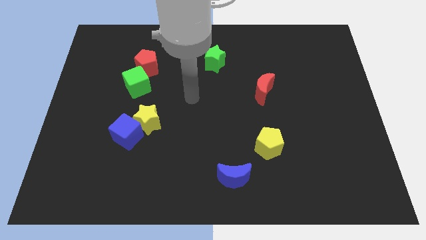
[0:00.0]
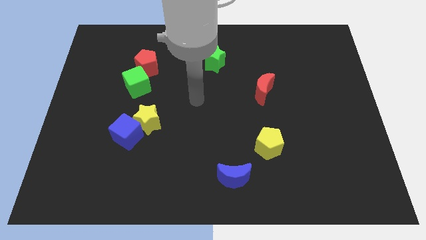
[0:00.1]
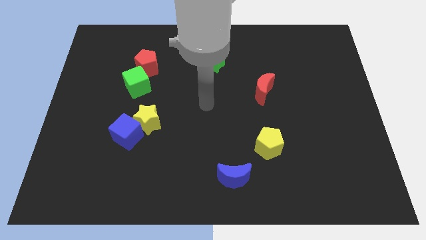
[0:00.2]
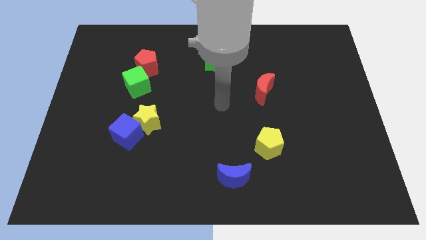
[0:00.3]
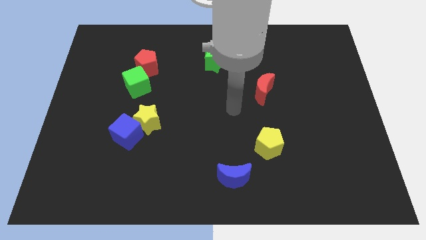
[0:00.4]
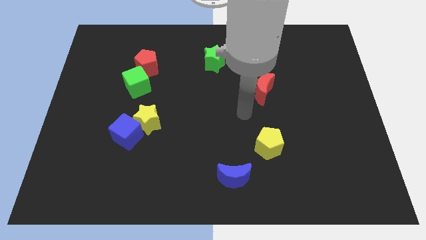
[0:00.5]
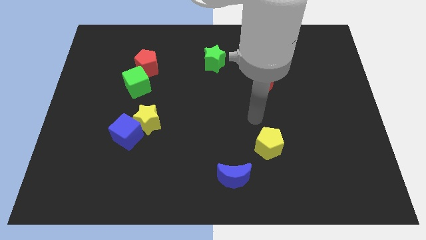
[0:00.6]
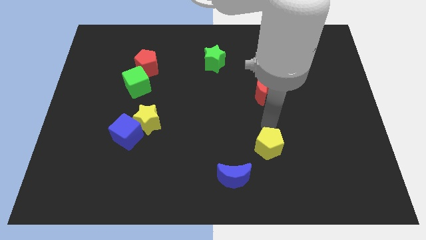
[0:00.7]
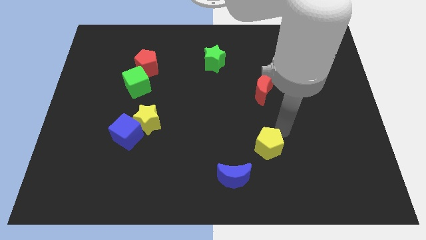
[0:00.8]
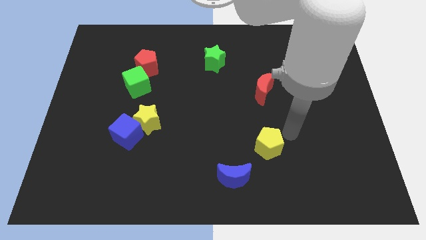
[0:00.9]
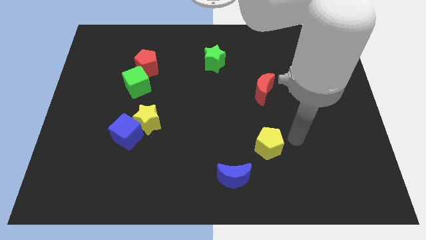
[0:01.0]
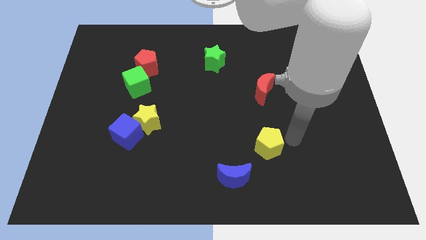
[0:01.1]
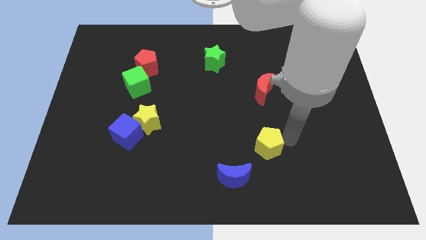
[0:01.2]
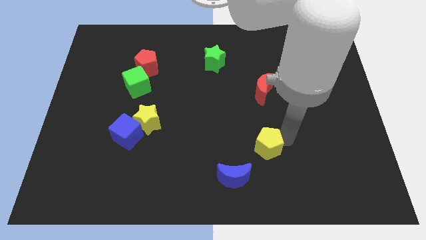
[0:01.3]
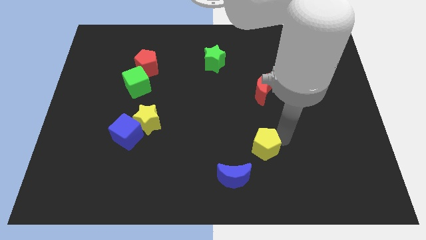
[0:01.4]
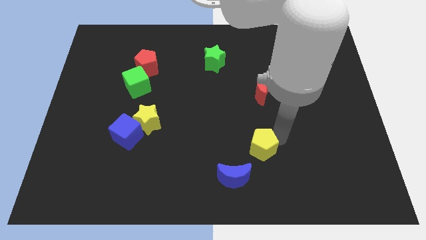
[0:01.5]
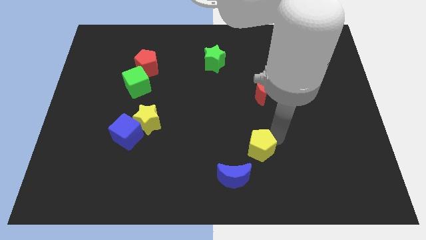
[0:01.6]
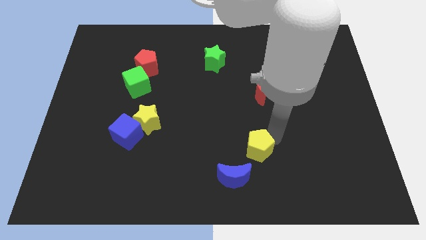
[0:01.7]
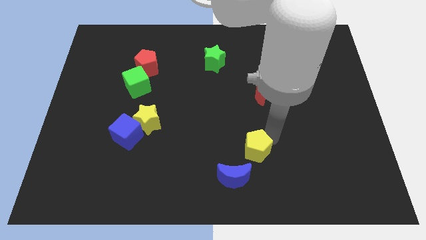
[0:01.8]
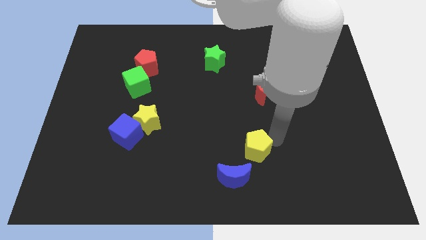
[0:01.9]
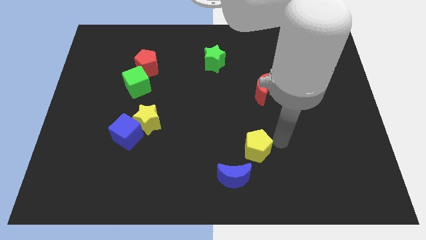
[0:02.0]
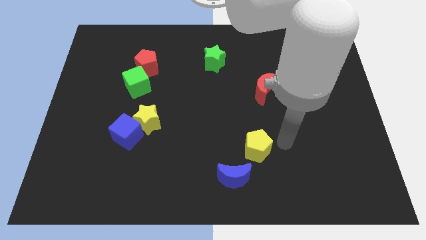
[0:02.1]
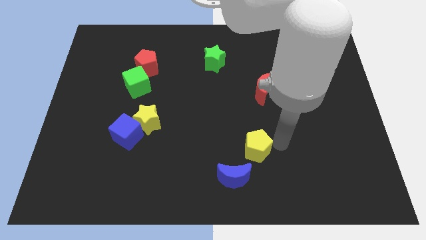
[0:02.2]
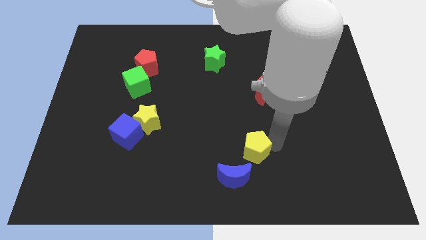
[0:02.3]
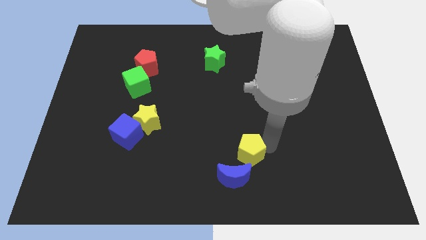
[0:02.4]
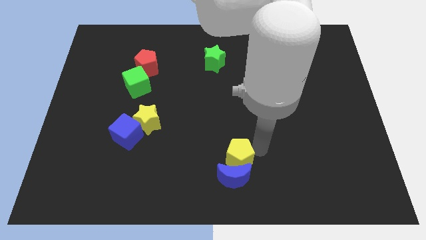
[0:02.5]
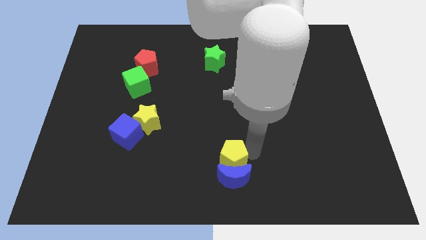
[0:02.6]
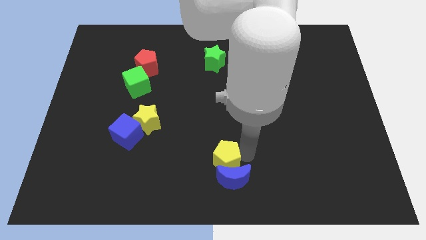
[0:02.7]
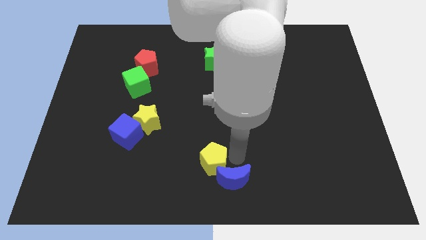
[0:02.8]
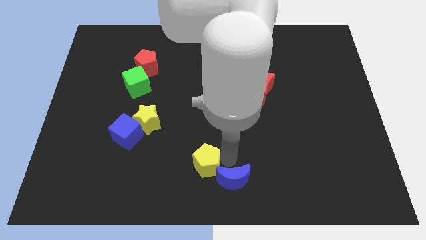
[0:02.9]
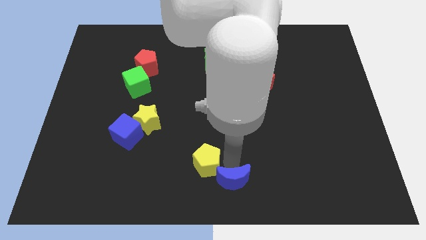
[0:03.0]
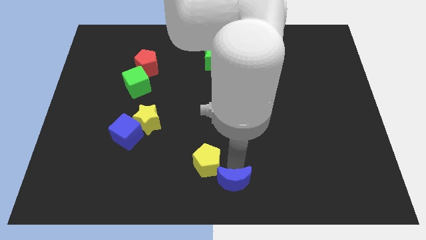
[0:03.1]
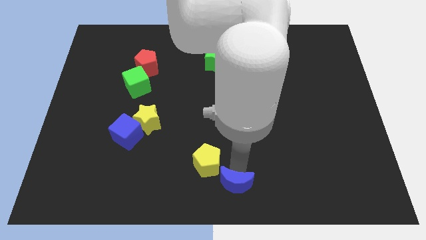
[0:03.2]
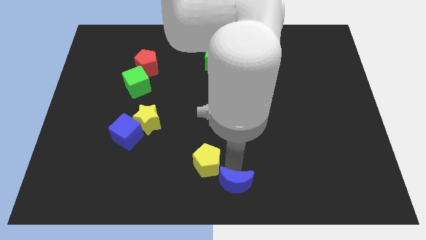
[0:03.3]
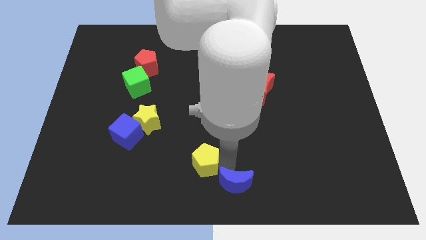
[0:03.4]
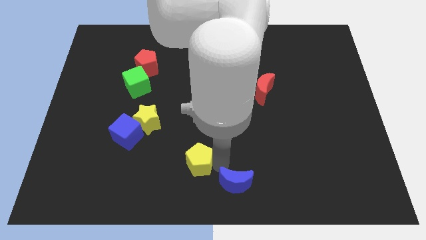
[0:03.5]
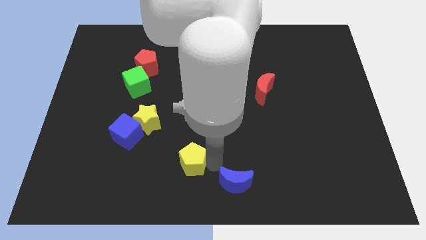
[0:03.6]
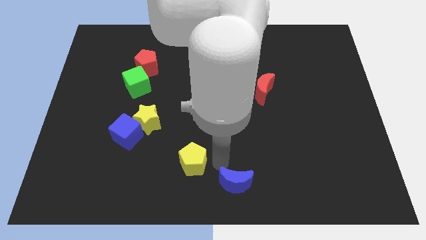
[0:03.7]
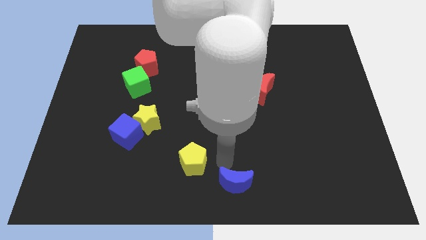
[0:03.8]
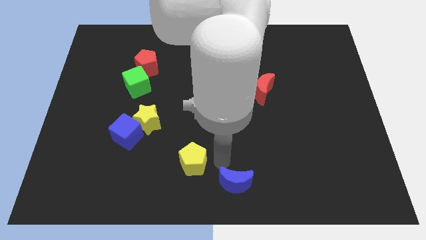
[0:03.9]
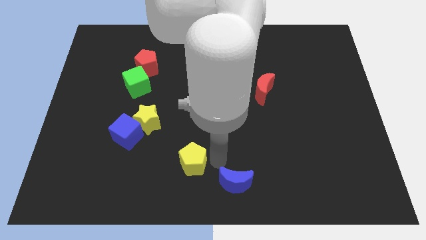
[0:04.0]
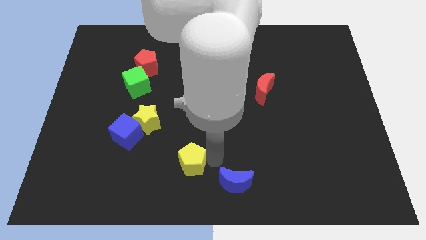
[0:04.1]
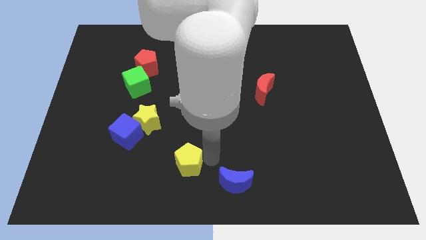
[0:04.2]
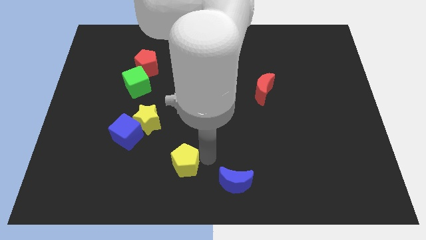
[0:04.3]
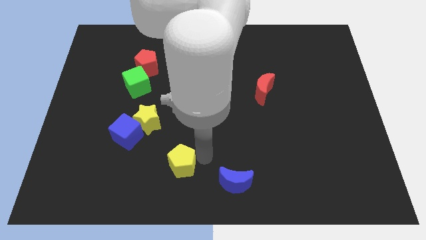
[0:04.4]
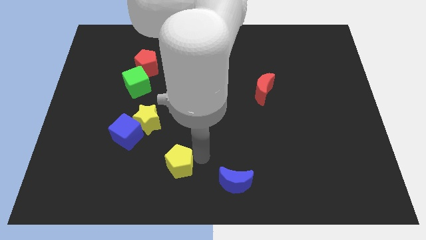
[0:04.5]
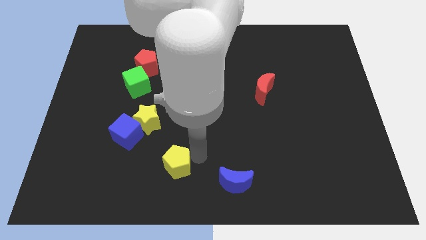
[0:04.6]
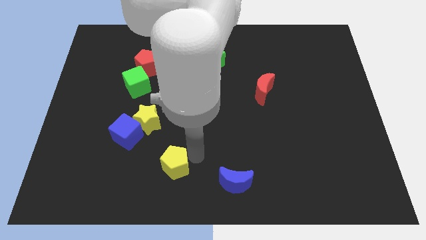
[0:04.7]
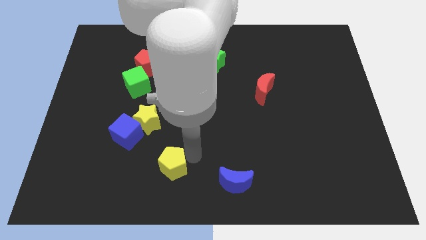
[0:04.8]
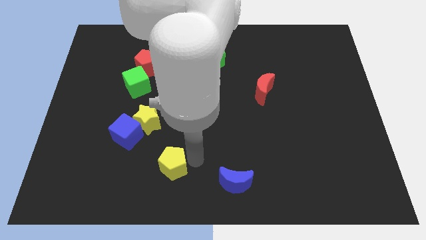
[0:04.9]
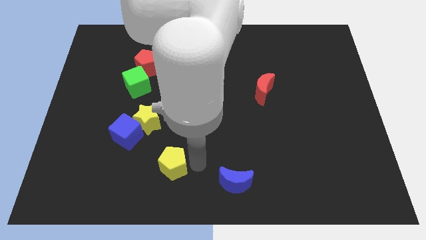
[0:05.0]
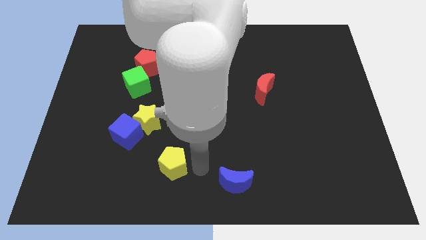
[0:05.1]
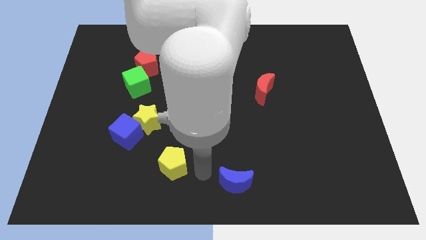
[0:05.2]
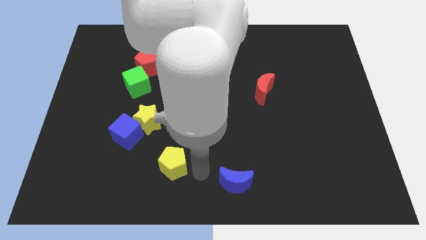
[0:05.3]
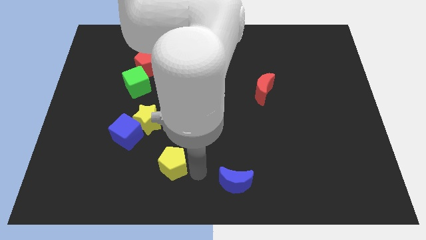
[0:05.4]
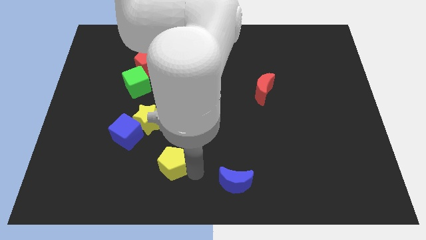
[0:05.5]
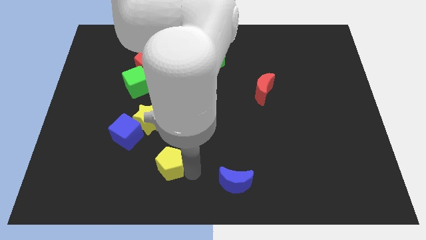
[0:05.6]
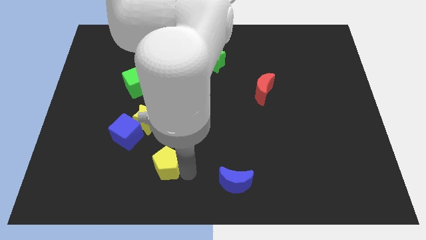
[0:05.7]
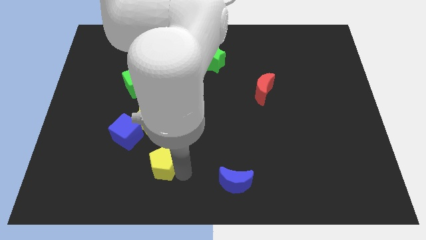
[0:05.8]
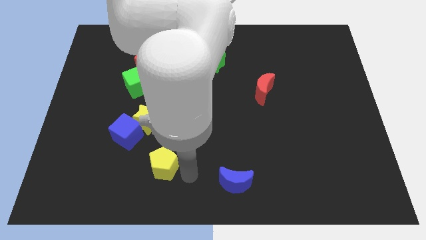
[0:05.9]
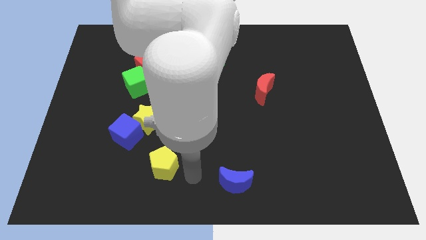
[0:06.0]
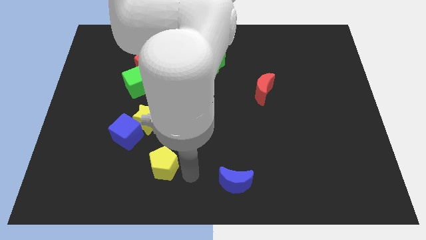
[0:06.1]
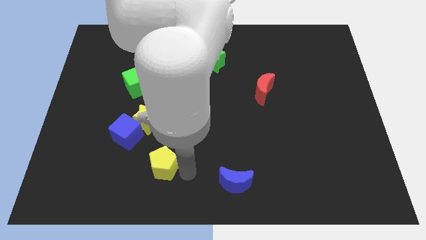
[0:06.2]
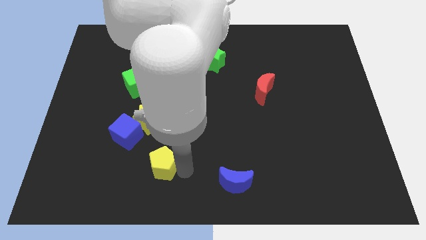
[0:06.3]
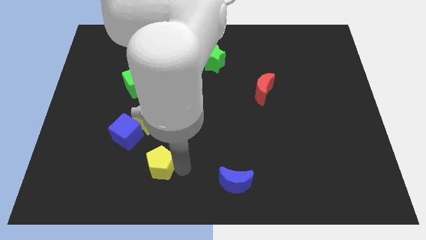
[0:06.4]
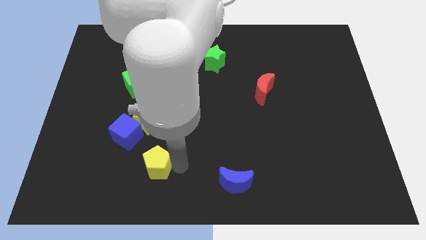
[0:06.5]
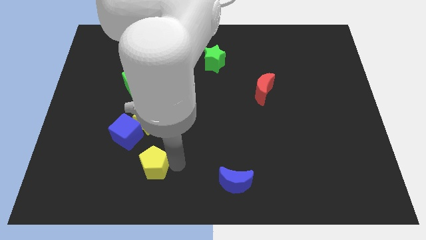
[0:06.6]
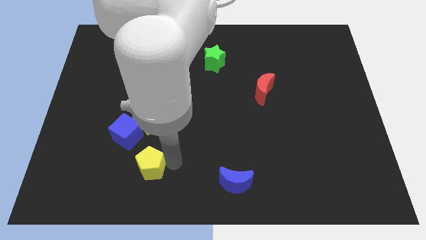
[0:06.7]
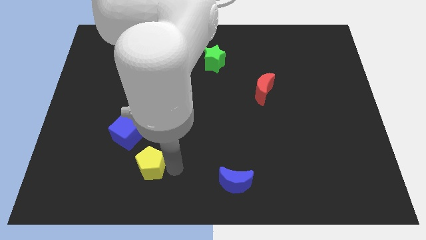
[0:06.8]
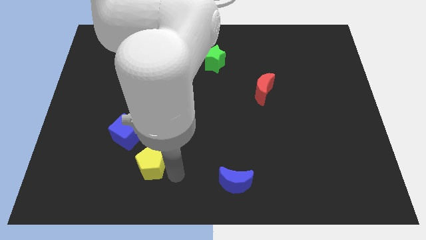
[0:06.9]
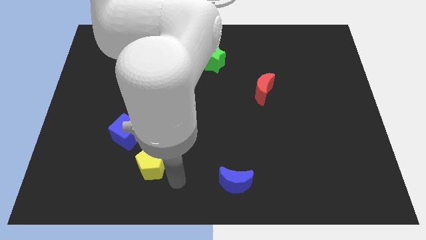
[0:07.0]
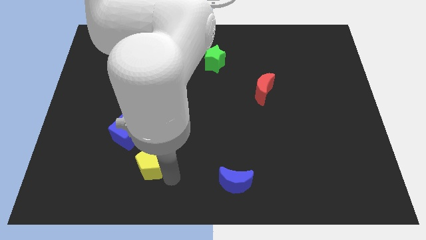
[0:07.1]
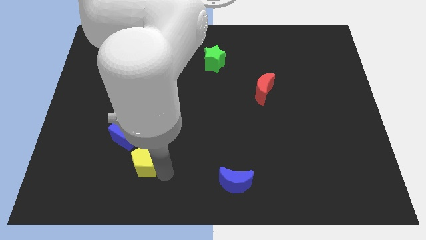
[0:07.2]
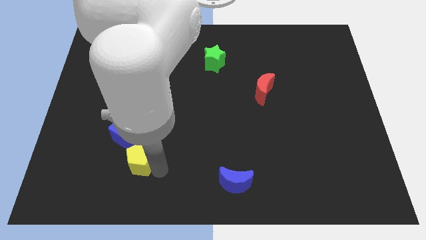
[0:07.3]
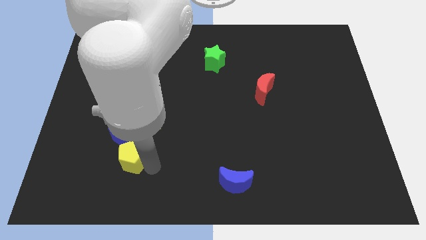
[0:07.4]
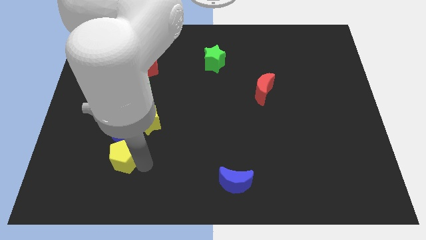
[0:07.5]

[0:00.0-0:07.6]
push the yellow pentagon to the bottom left side of the yellow star
